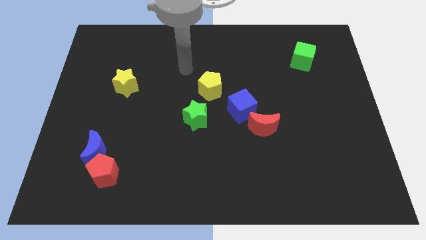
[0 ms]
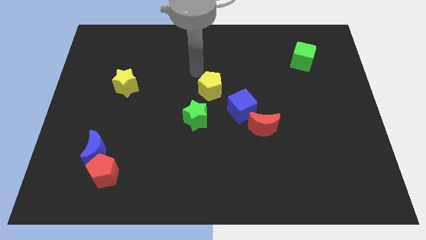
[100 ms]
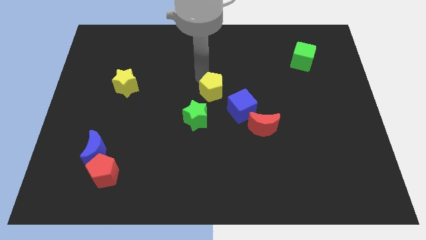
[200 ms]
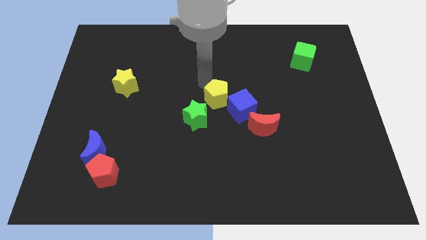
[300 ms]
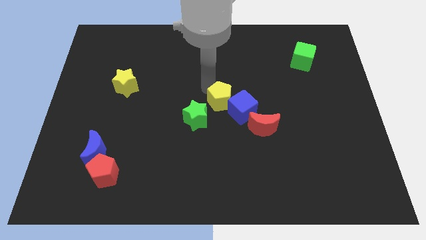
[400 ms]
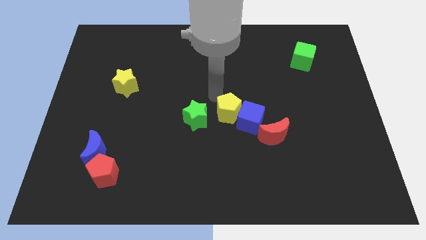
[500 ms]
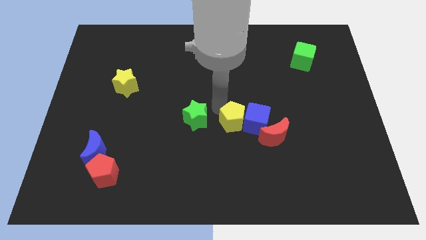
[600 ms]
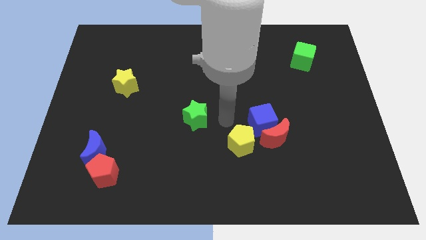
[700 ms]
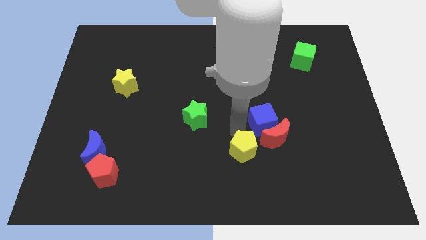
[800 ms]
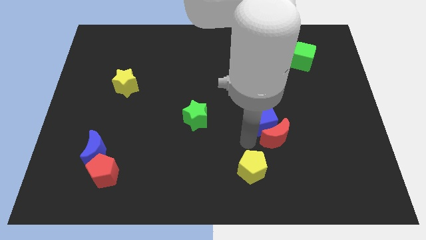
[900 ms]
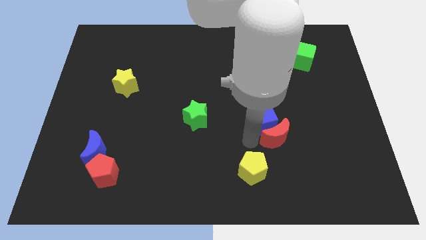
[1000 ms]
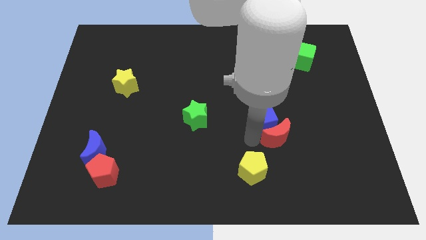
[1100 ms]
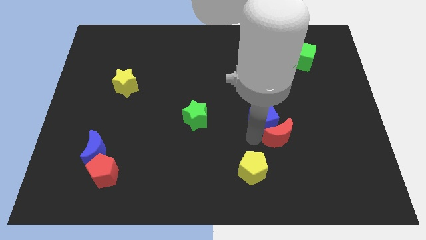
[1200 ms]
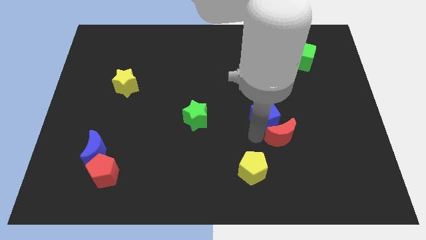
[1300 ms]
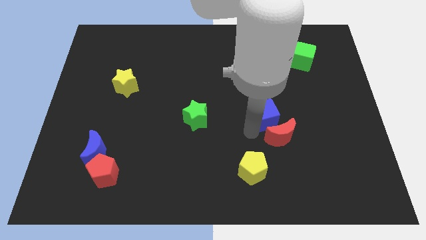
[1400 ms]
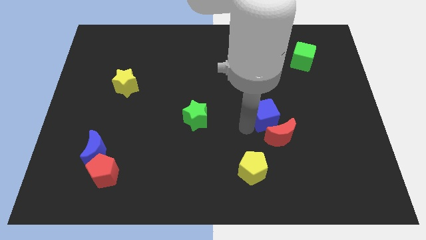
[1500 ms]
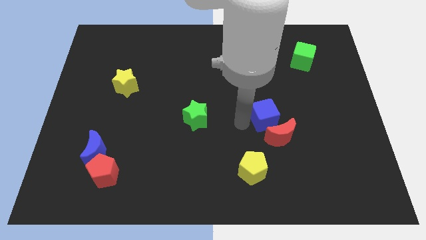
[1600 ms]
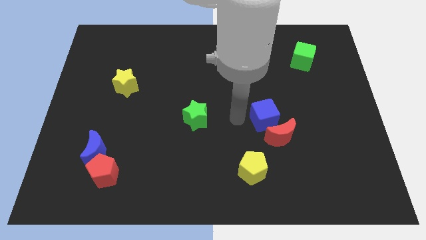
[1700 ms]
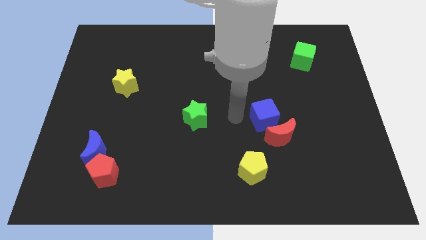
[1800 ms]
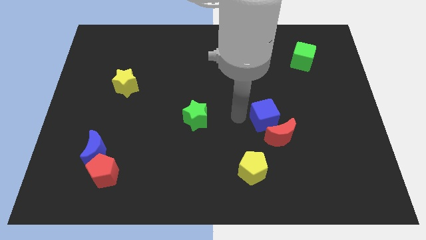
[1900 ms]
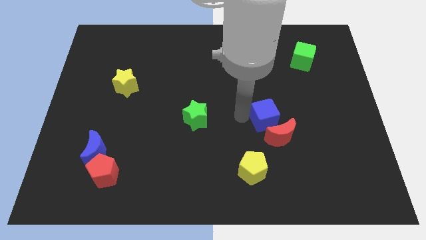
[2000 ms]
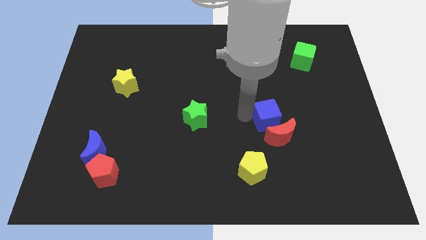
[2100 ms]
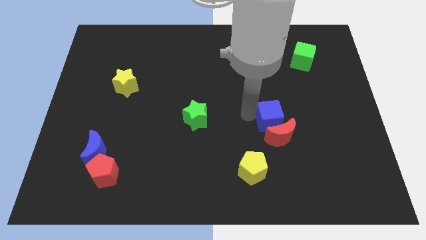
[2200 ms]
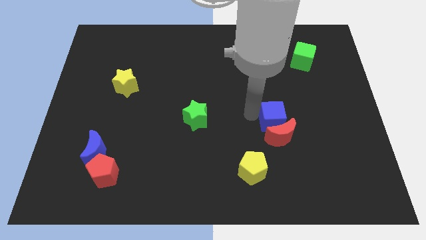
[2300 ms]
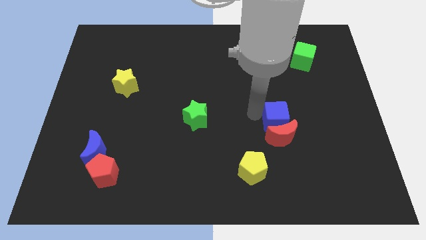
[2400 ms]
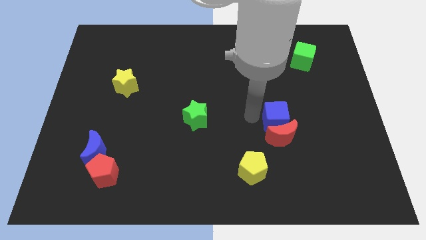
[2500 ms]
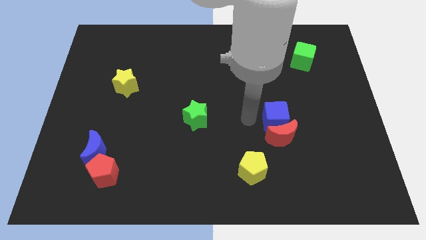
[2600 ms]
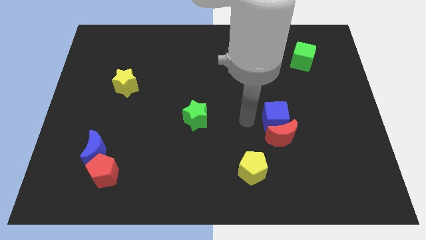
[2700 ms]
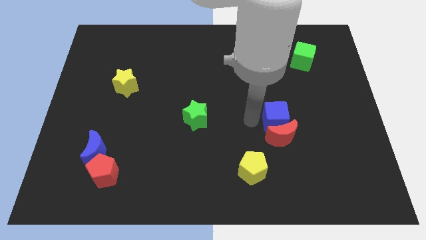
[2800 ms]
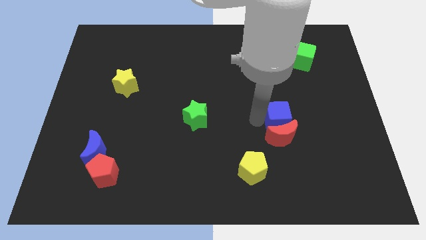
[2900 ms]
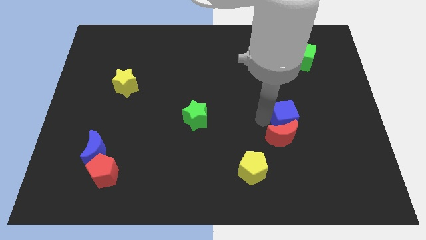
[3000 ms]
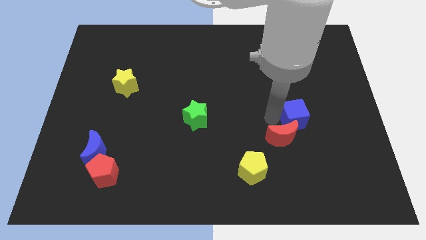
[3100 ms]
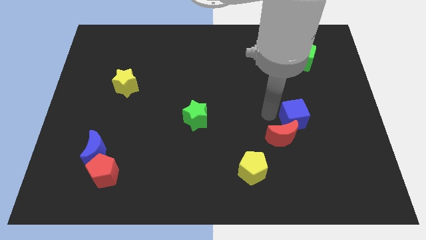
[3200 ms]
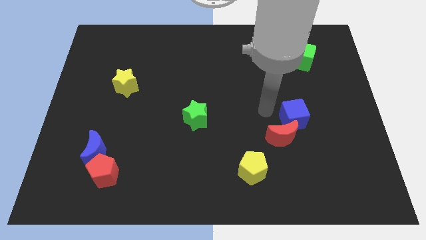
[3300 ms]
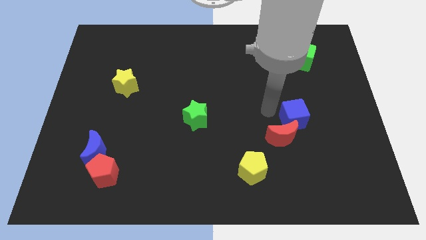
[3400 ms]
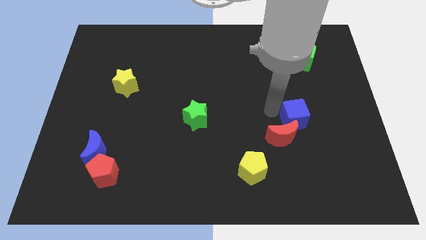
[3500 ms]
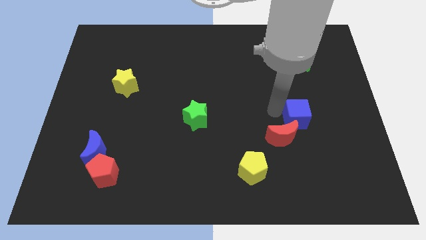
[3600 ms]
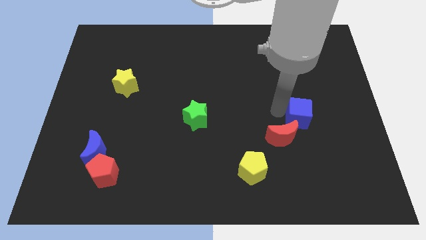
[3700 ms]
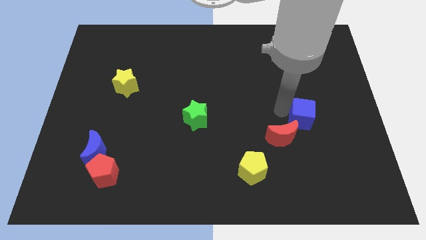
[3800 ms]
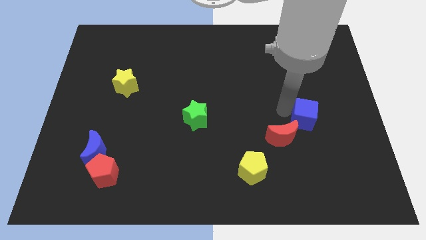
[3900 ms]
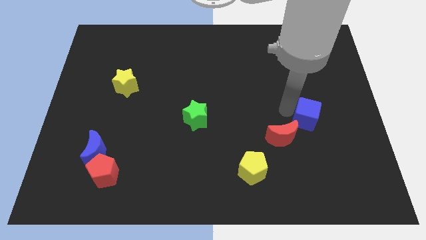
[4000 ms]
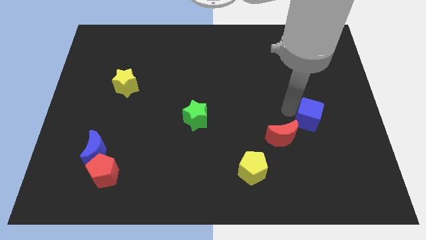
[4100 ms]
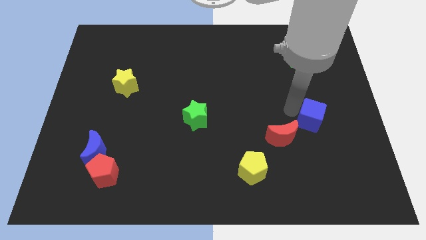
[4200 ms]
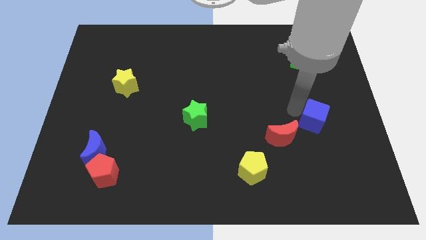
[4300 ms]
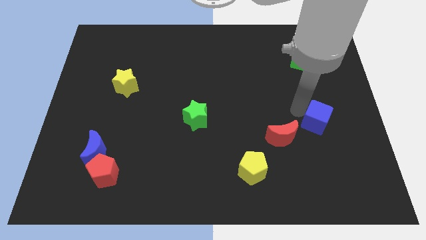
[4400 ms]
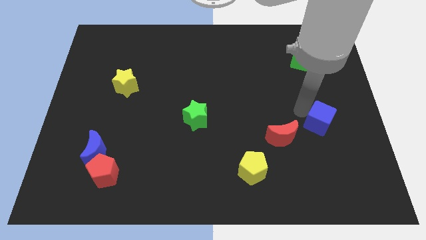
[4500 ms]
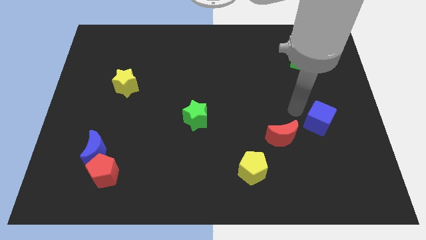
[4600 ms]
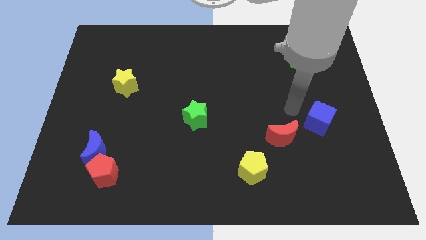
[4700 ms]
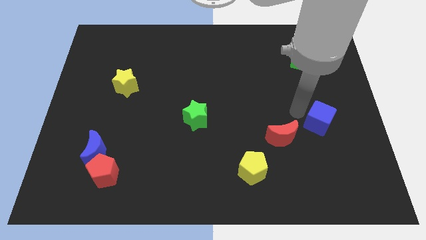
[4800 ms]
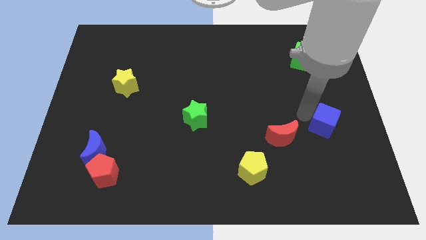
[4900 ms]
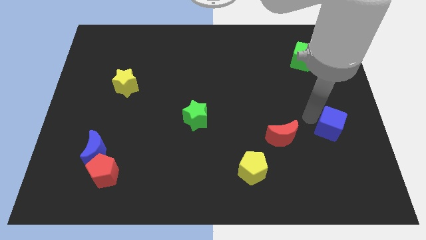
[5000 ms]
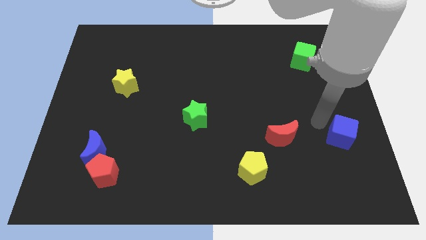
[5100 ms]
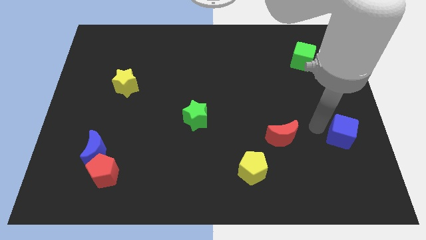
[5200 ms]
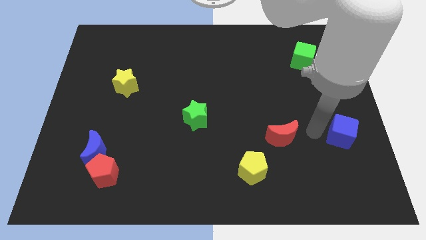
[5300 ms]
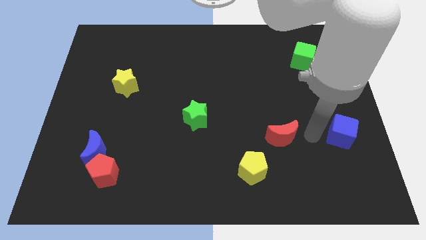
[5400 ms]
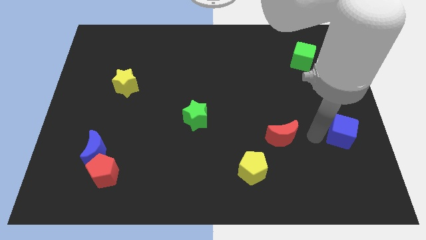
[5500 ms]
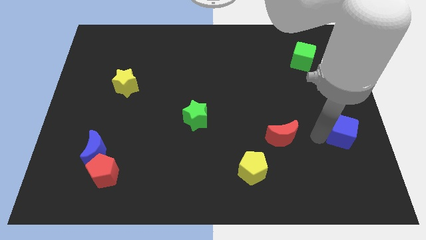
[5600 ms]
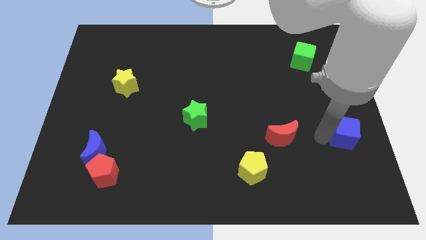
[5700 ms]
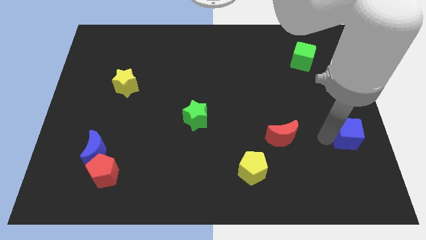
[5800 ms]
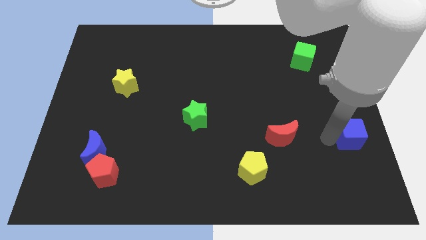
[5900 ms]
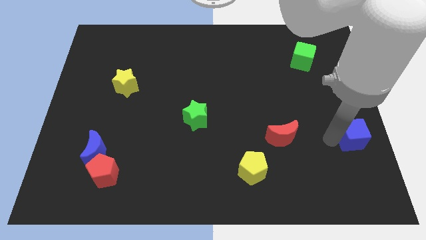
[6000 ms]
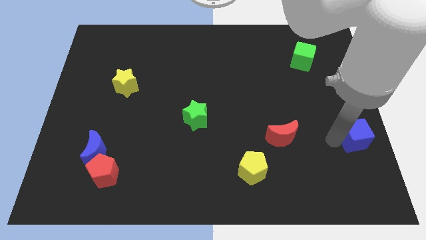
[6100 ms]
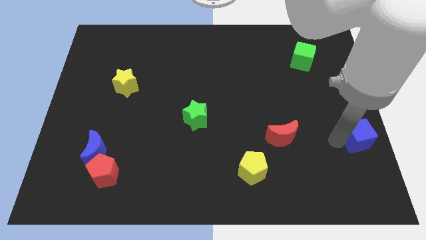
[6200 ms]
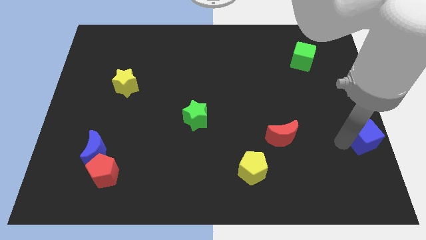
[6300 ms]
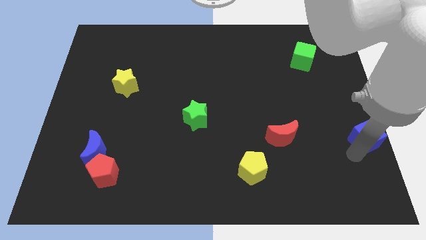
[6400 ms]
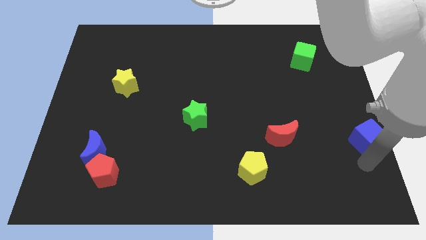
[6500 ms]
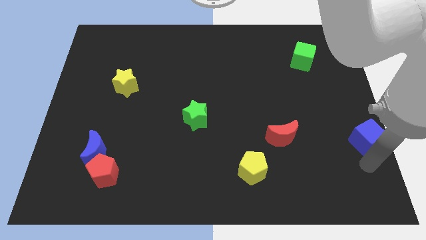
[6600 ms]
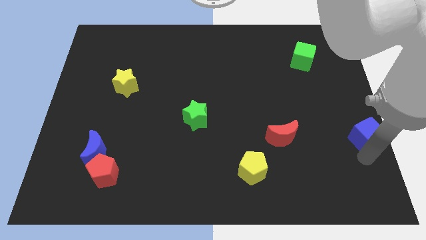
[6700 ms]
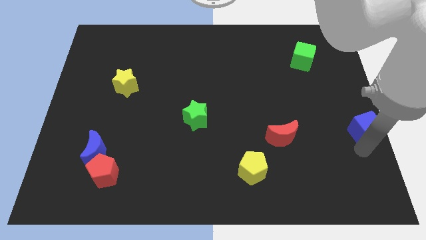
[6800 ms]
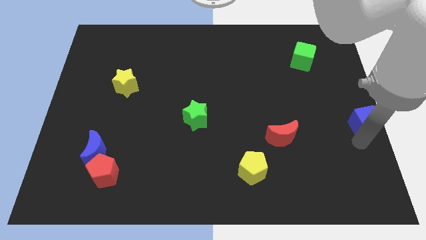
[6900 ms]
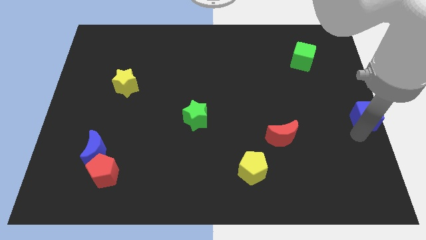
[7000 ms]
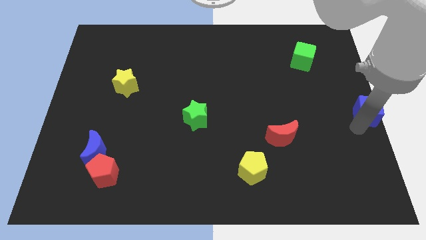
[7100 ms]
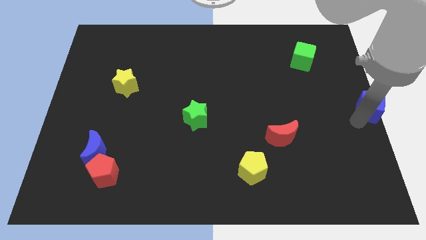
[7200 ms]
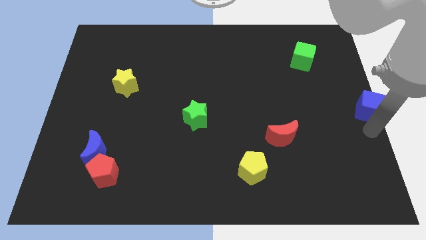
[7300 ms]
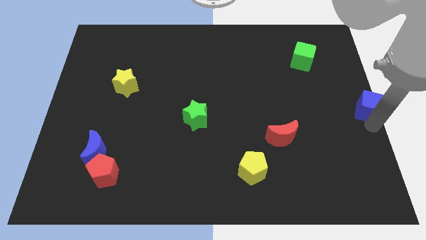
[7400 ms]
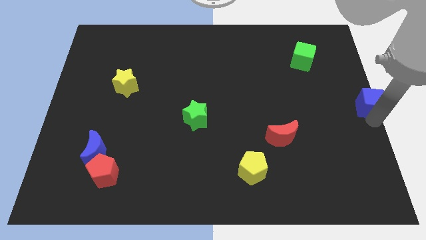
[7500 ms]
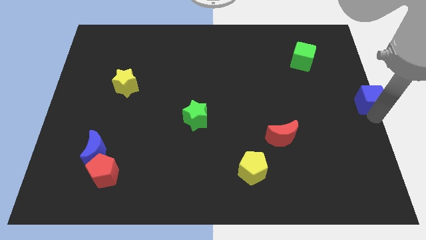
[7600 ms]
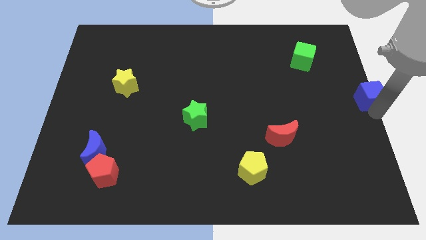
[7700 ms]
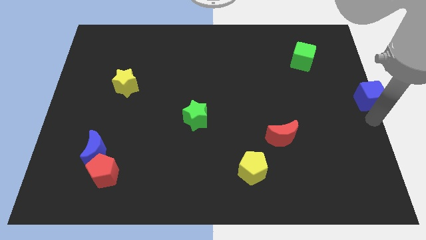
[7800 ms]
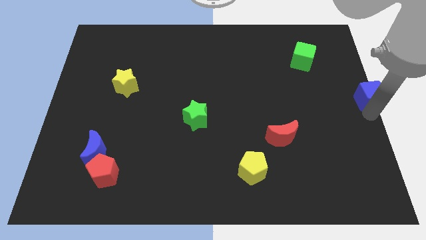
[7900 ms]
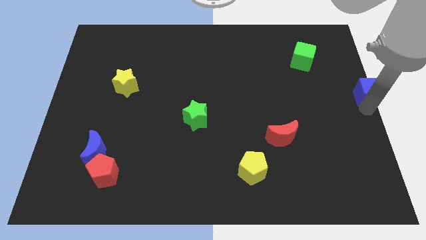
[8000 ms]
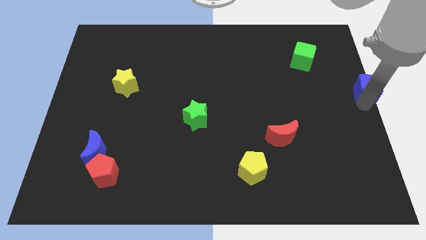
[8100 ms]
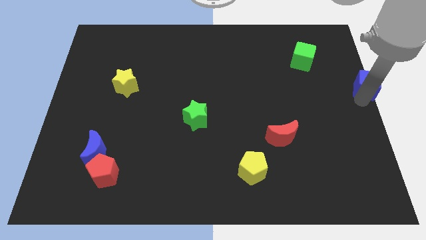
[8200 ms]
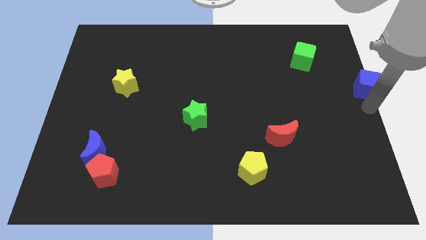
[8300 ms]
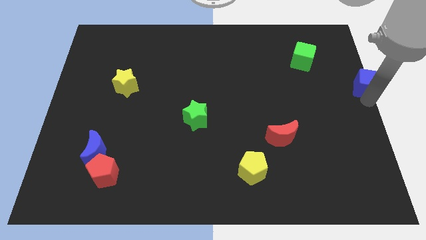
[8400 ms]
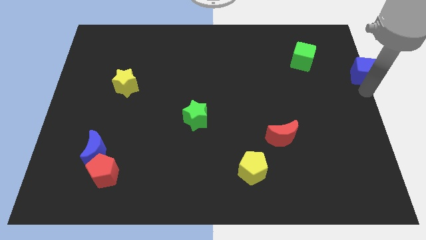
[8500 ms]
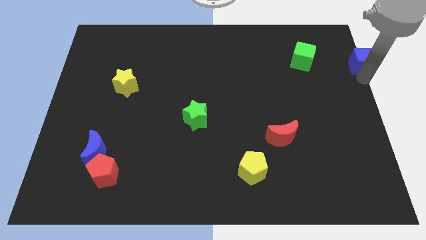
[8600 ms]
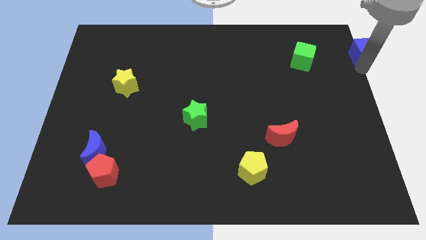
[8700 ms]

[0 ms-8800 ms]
push the blue cube to the upper right corner
